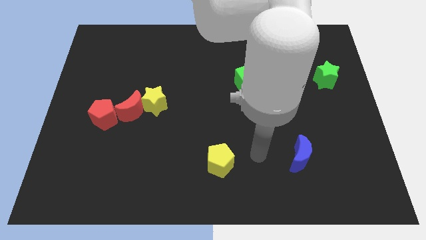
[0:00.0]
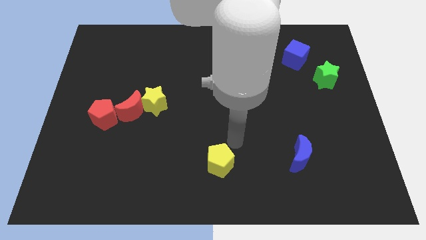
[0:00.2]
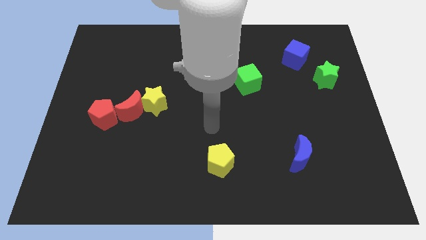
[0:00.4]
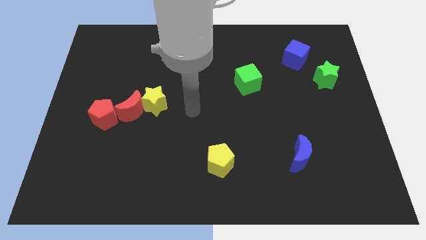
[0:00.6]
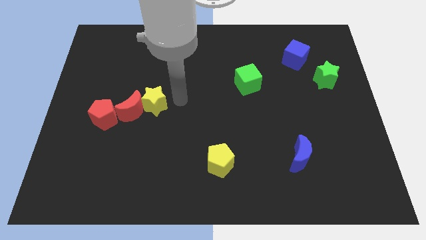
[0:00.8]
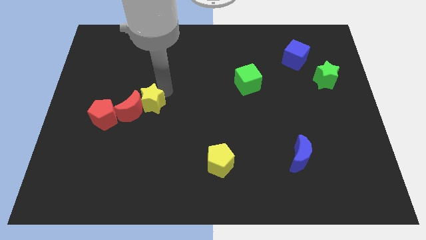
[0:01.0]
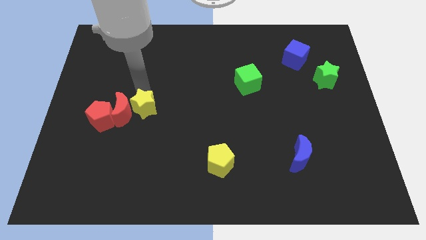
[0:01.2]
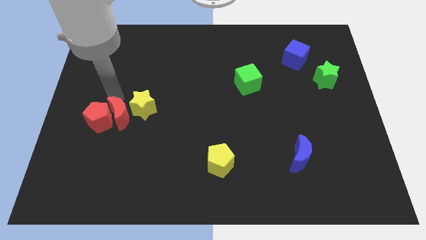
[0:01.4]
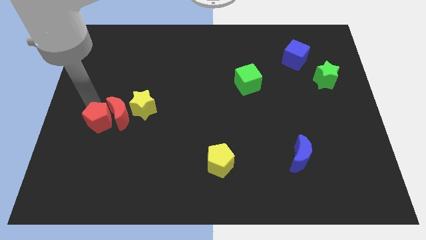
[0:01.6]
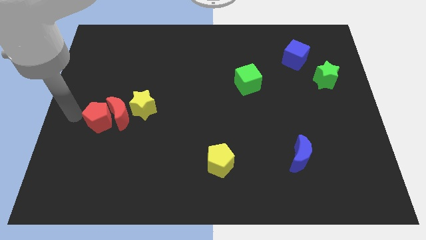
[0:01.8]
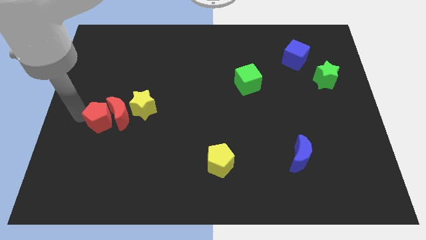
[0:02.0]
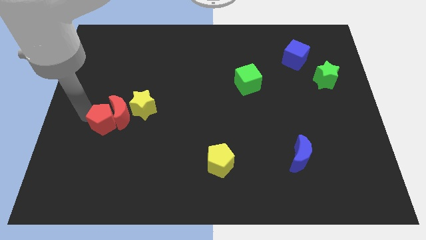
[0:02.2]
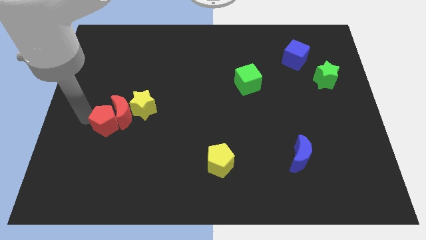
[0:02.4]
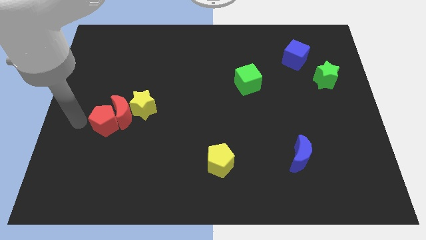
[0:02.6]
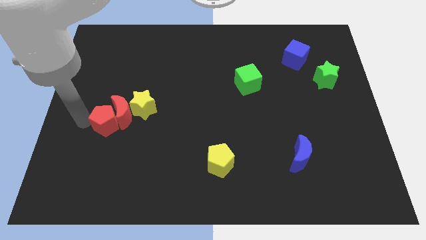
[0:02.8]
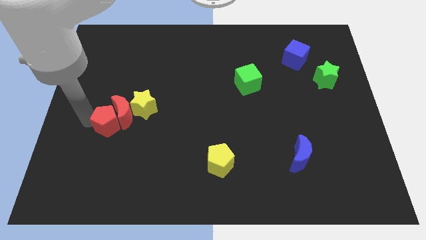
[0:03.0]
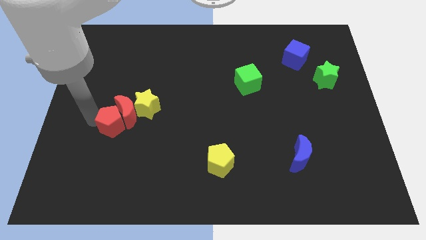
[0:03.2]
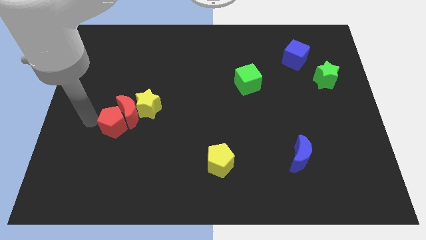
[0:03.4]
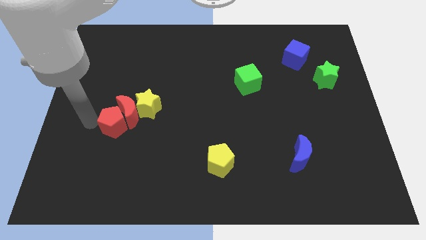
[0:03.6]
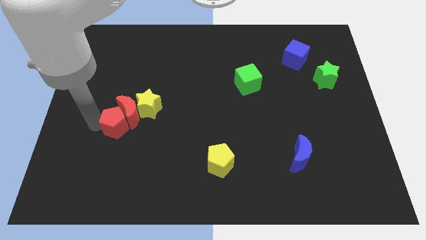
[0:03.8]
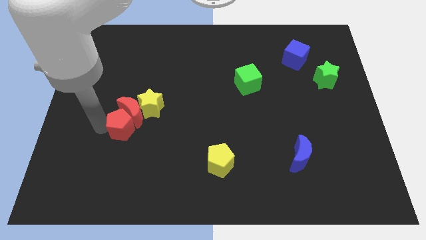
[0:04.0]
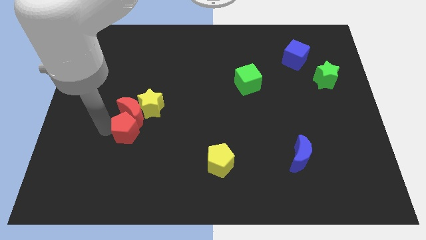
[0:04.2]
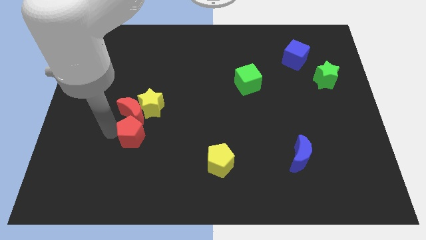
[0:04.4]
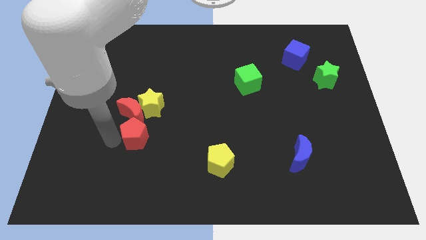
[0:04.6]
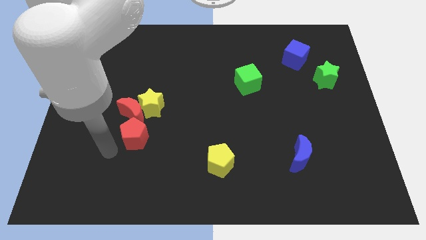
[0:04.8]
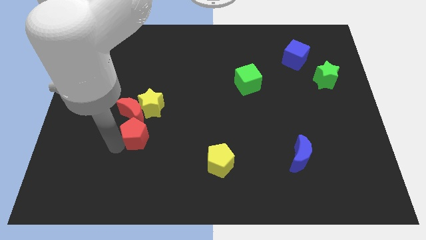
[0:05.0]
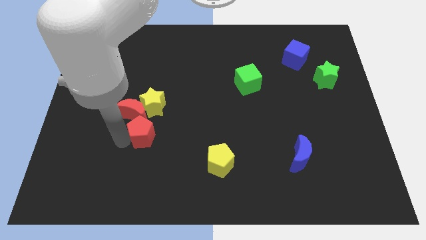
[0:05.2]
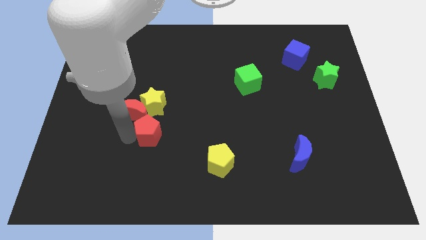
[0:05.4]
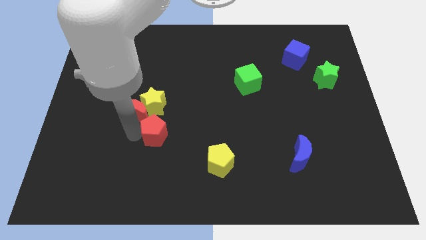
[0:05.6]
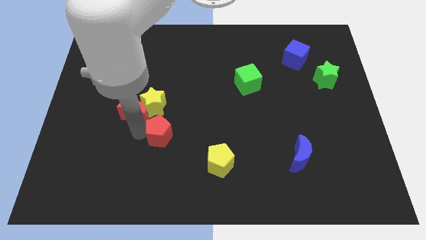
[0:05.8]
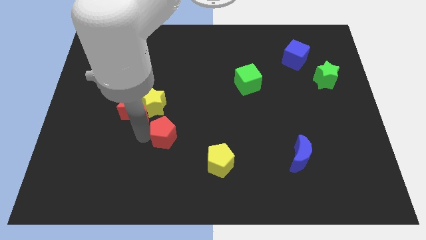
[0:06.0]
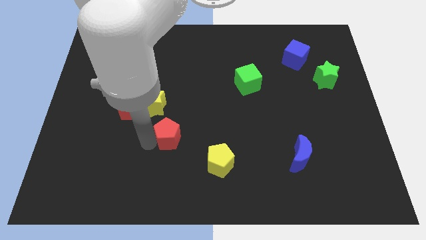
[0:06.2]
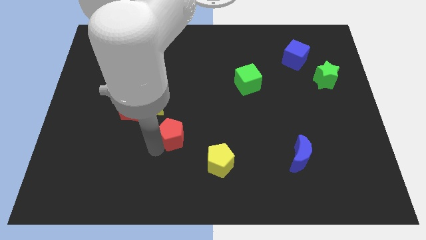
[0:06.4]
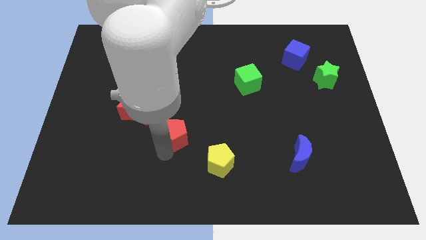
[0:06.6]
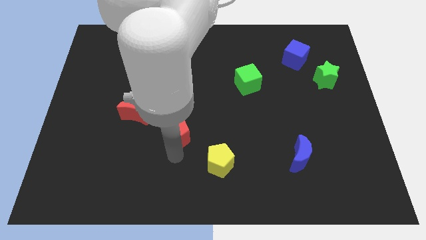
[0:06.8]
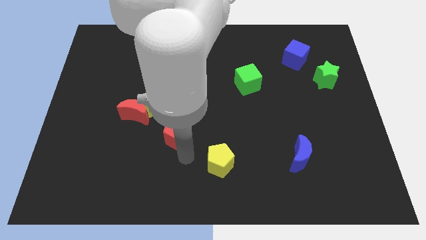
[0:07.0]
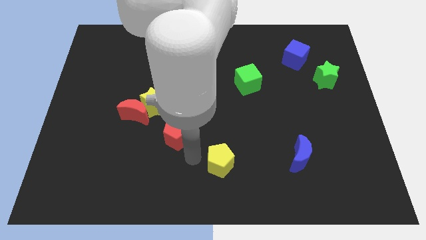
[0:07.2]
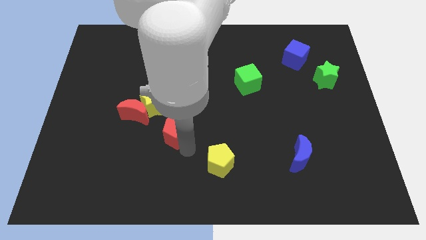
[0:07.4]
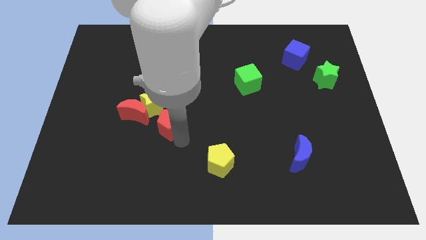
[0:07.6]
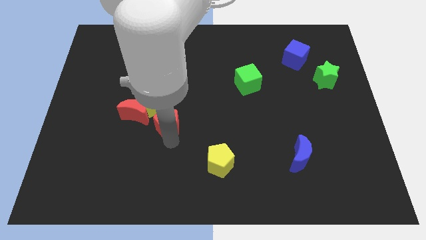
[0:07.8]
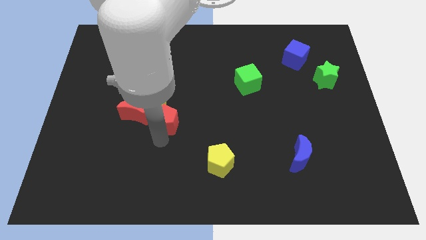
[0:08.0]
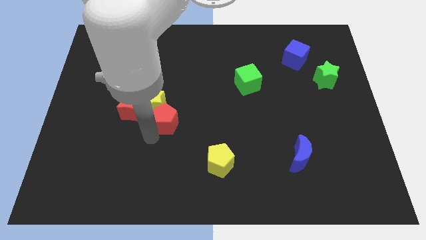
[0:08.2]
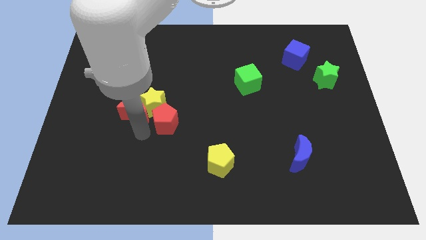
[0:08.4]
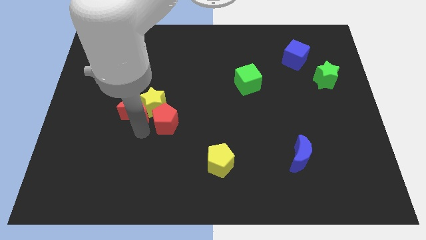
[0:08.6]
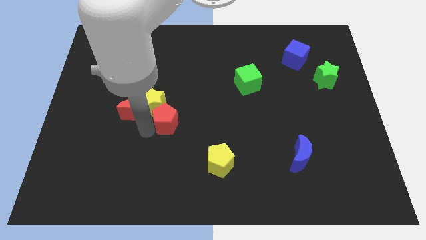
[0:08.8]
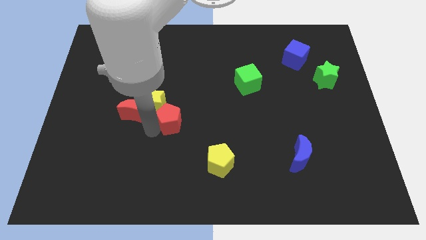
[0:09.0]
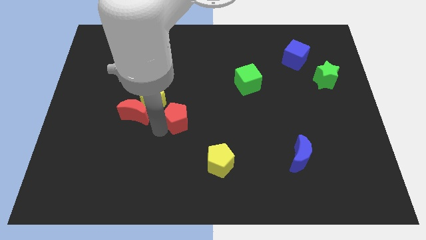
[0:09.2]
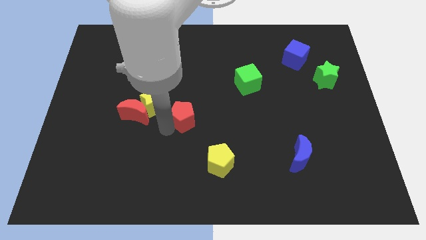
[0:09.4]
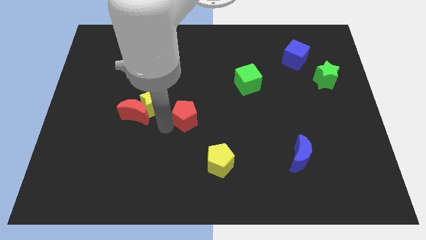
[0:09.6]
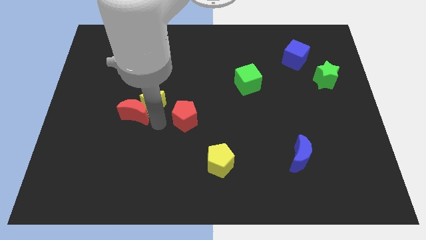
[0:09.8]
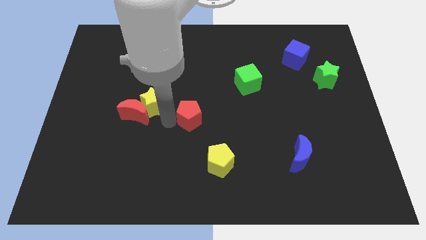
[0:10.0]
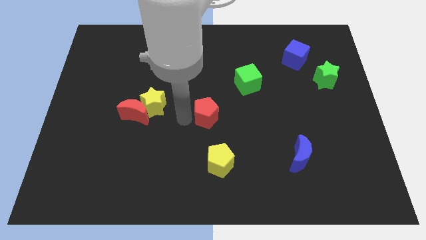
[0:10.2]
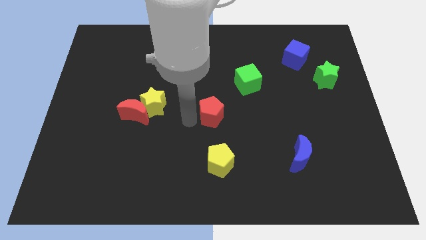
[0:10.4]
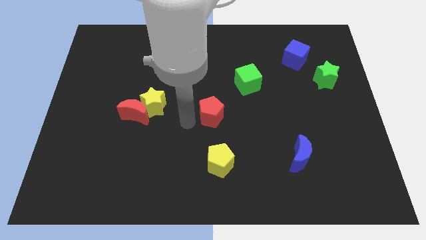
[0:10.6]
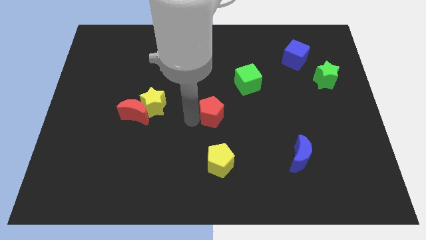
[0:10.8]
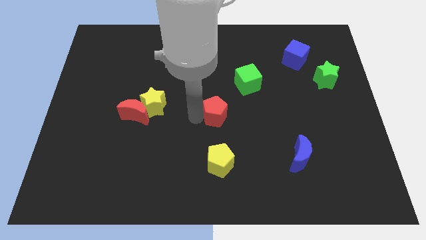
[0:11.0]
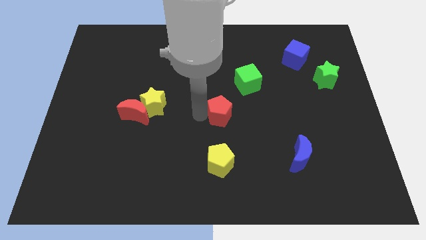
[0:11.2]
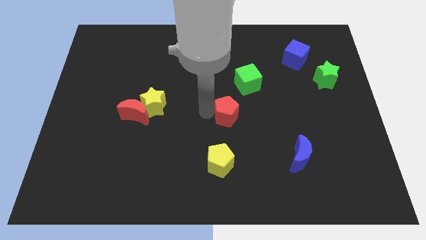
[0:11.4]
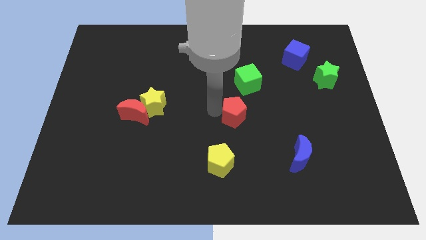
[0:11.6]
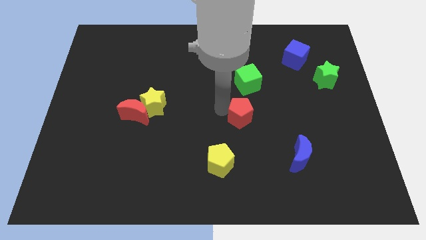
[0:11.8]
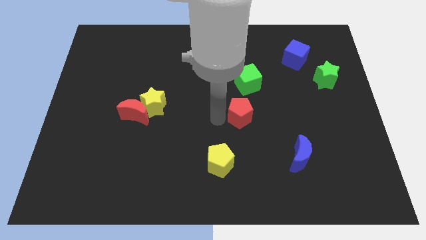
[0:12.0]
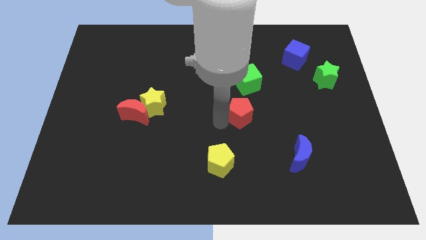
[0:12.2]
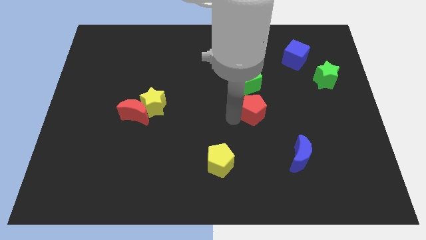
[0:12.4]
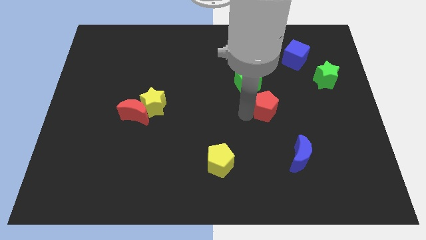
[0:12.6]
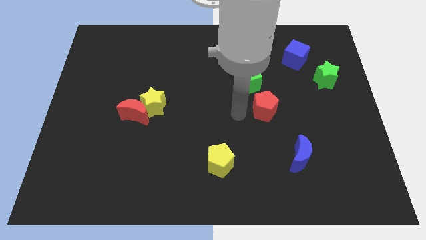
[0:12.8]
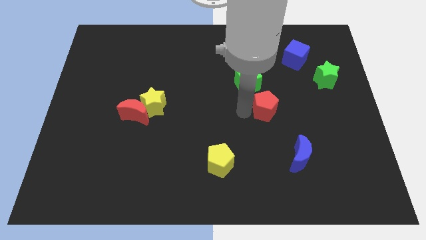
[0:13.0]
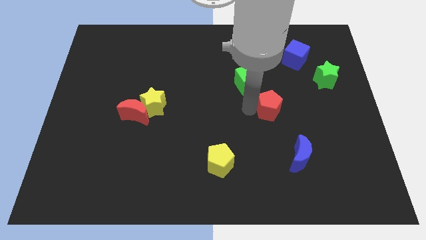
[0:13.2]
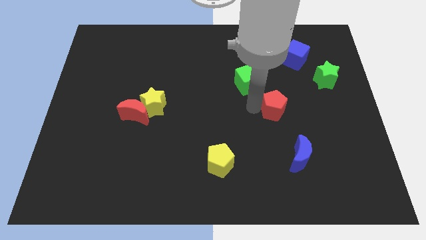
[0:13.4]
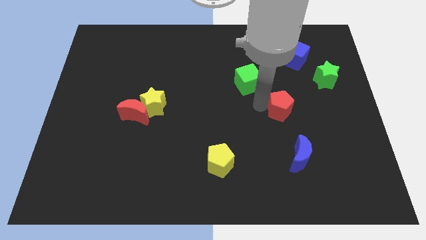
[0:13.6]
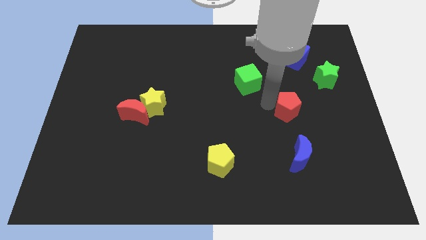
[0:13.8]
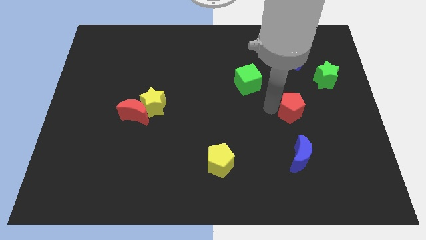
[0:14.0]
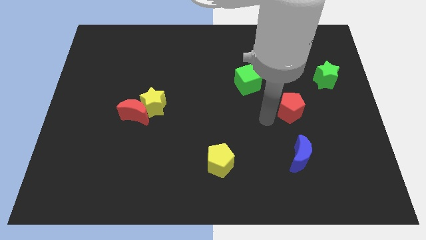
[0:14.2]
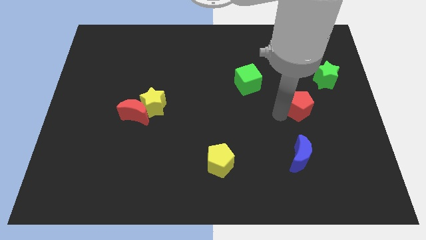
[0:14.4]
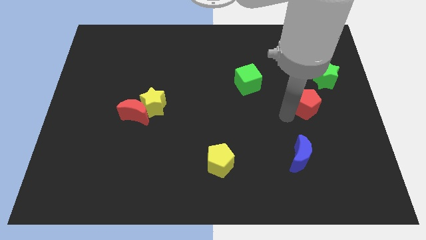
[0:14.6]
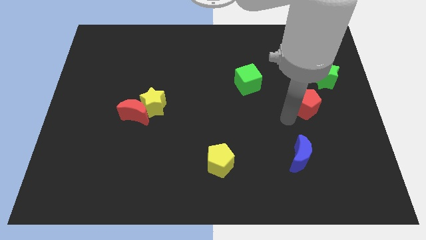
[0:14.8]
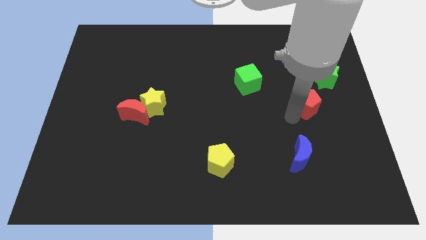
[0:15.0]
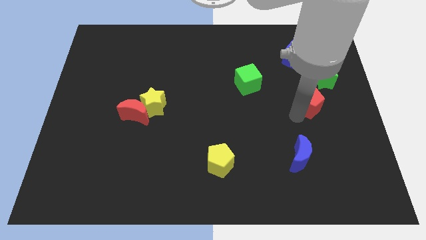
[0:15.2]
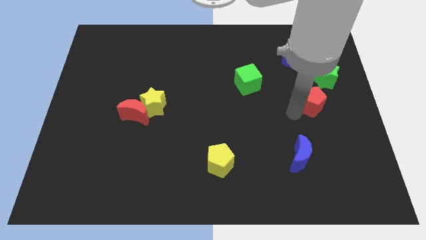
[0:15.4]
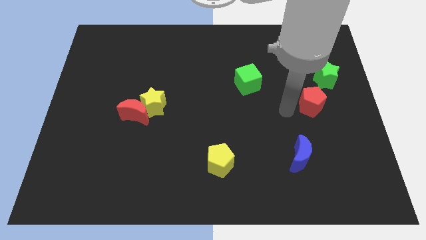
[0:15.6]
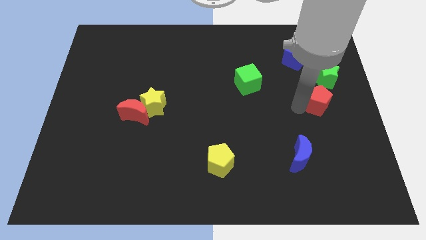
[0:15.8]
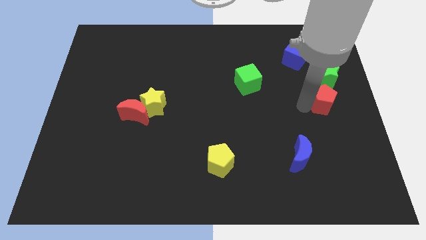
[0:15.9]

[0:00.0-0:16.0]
put the red pentagon to the center right
